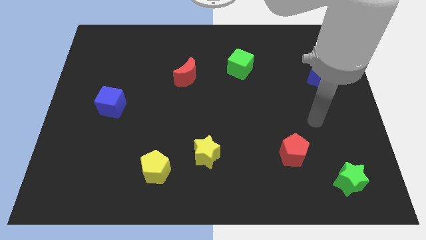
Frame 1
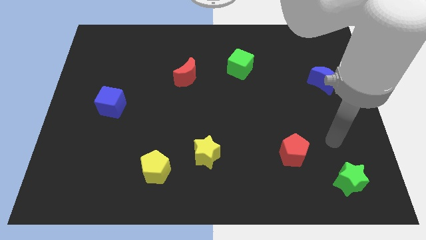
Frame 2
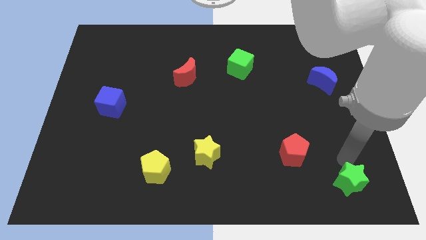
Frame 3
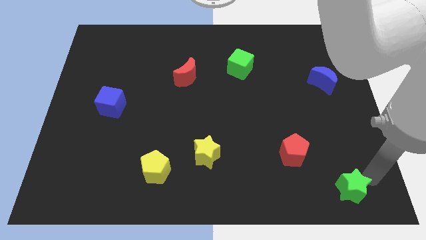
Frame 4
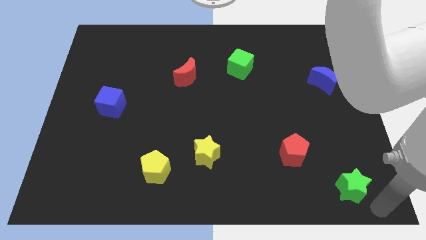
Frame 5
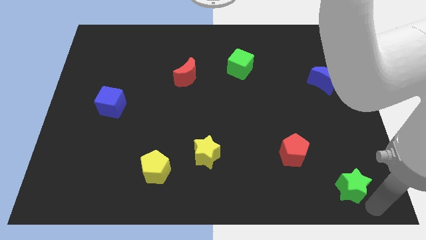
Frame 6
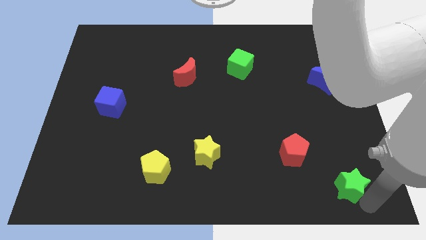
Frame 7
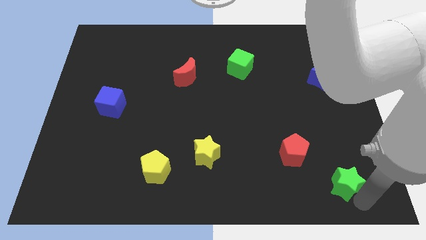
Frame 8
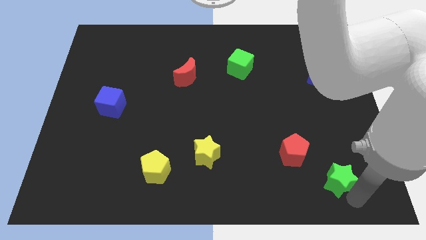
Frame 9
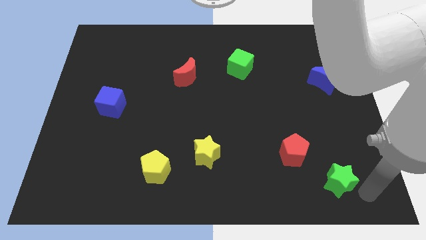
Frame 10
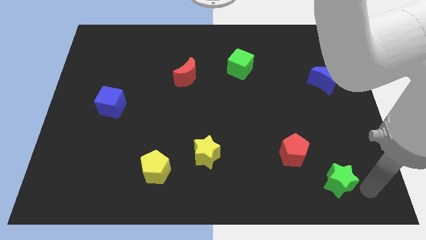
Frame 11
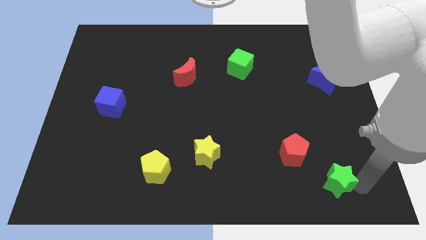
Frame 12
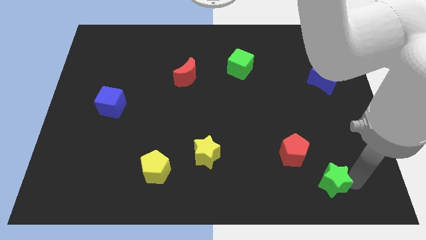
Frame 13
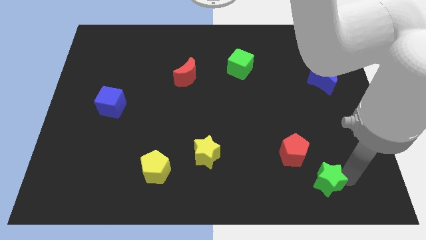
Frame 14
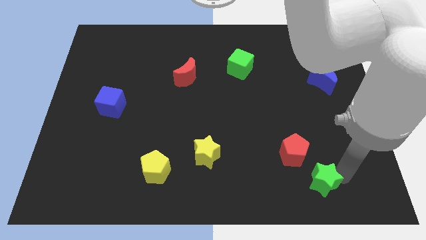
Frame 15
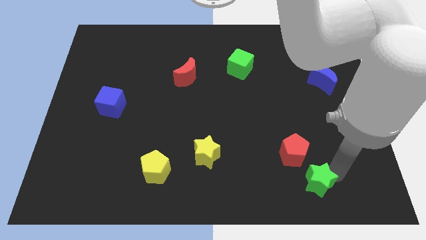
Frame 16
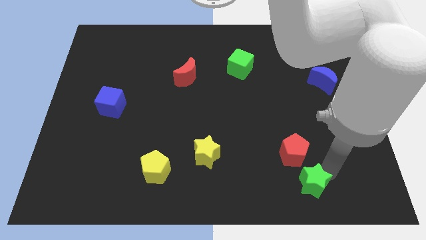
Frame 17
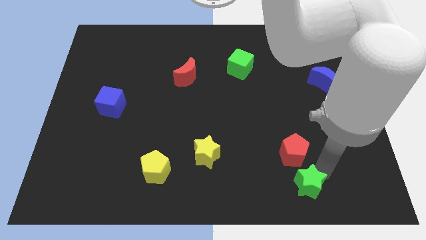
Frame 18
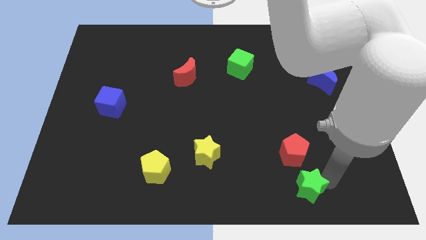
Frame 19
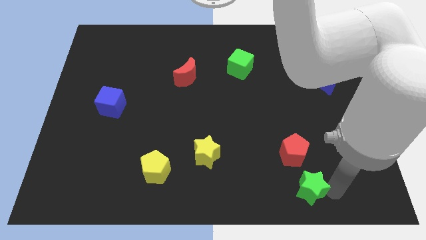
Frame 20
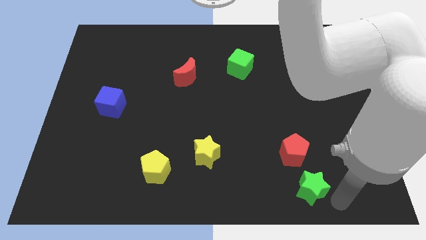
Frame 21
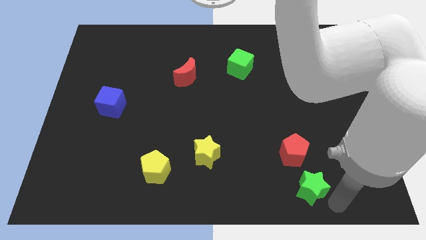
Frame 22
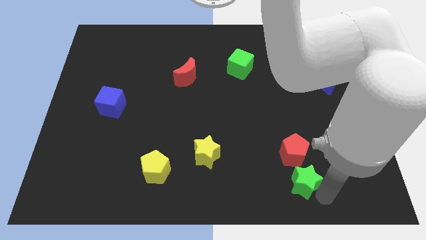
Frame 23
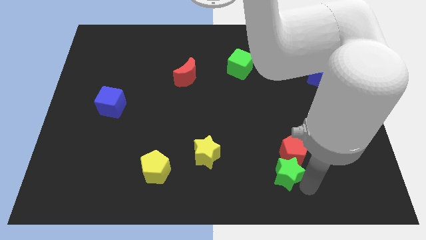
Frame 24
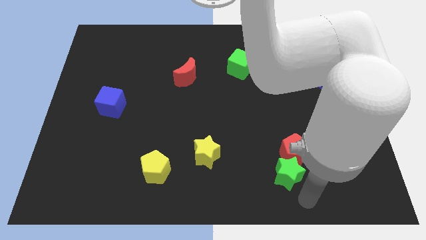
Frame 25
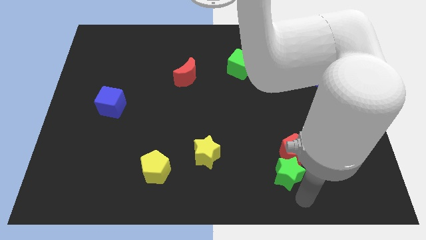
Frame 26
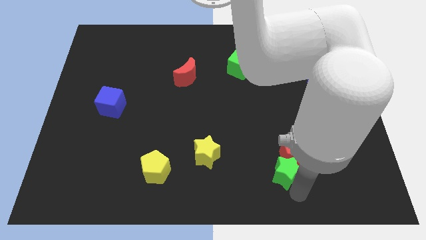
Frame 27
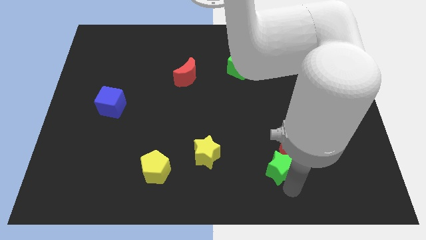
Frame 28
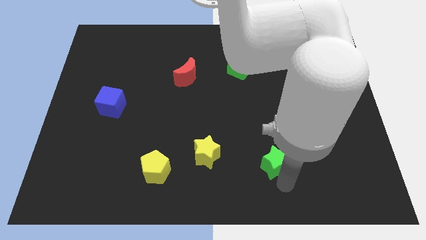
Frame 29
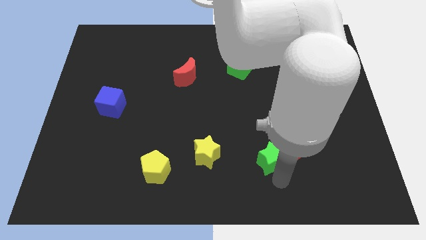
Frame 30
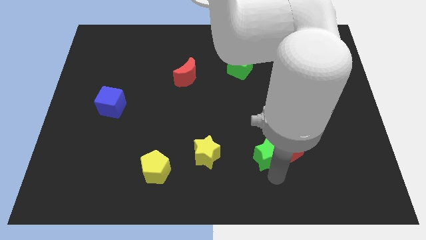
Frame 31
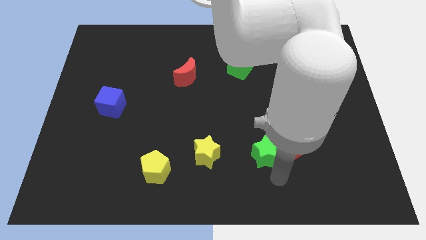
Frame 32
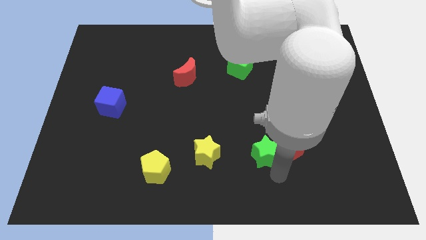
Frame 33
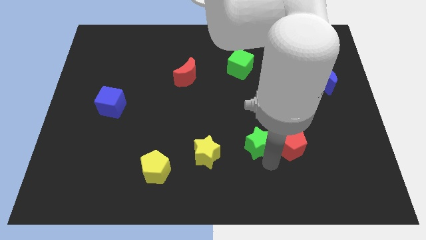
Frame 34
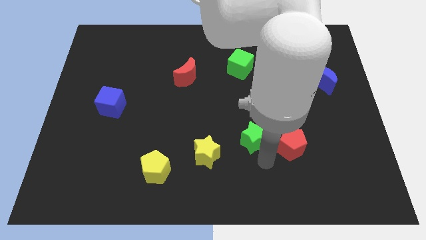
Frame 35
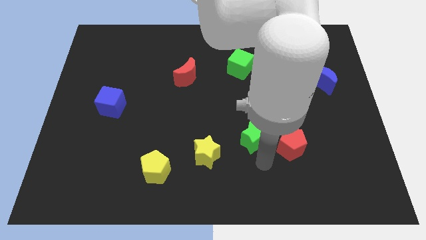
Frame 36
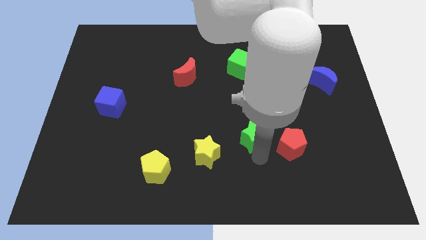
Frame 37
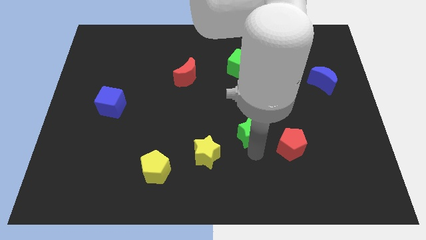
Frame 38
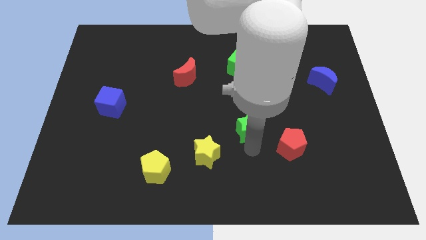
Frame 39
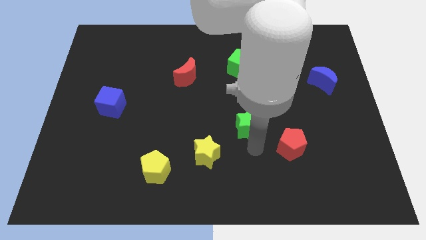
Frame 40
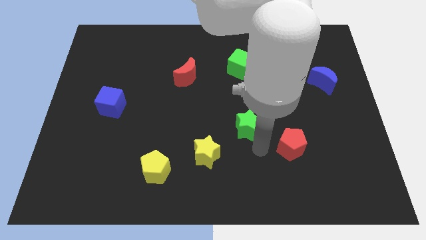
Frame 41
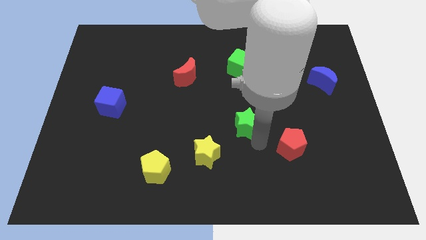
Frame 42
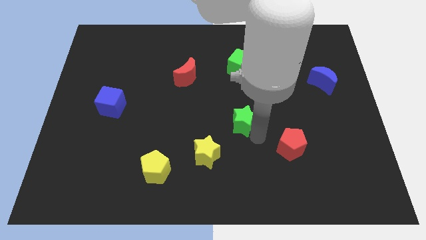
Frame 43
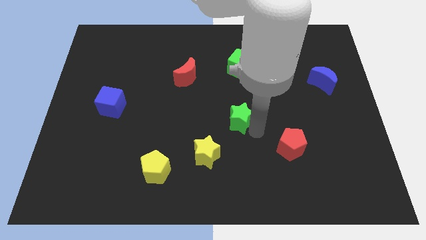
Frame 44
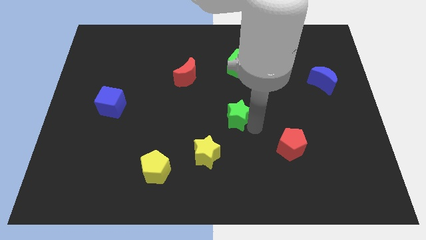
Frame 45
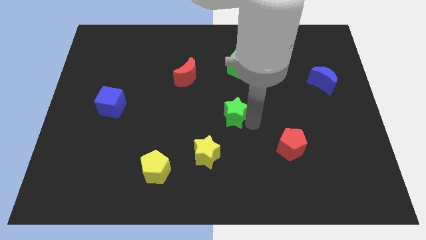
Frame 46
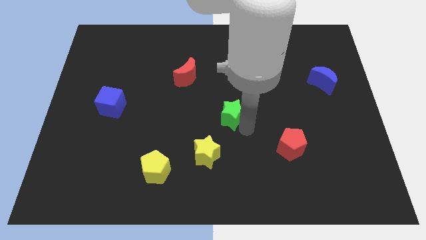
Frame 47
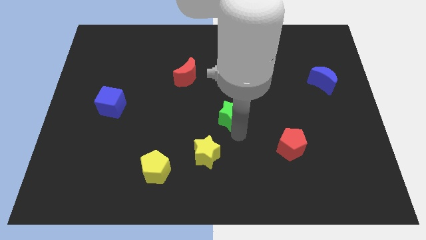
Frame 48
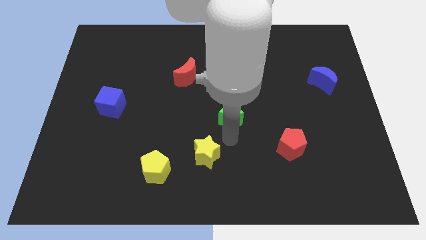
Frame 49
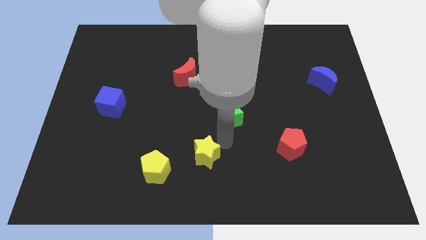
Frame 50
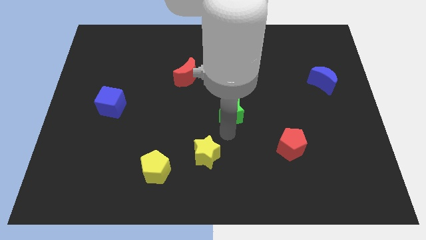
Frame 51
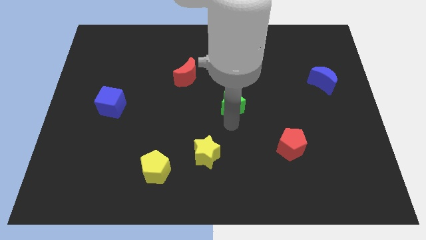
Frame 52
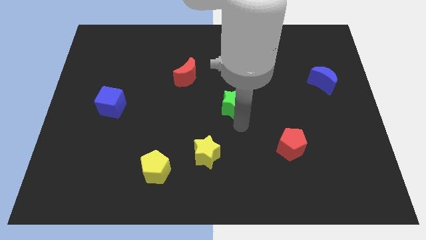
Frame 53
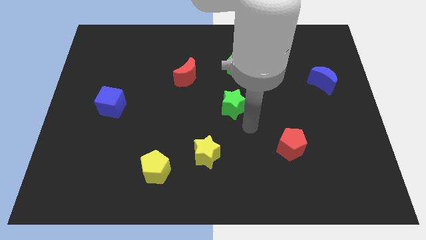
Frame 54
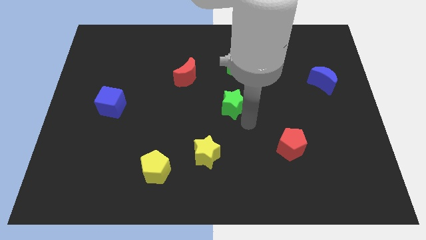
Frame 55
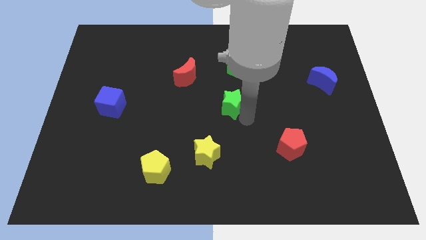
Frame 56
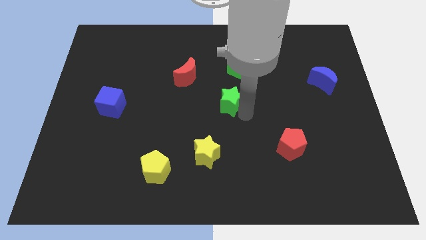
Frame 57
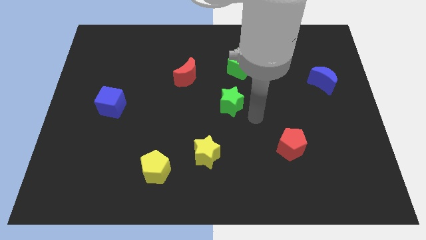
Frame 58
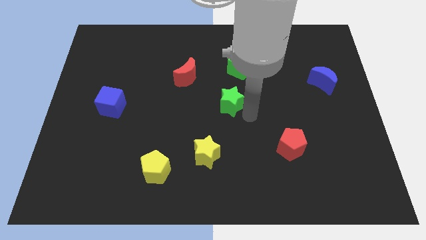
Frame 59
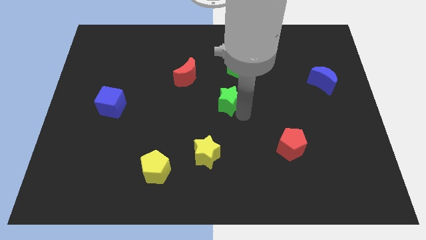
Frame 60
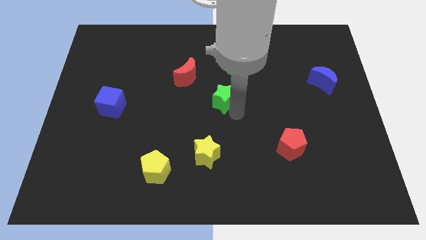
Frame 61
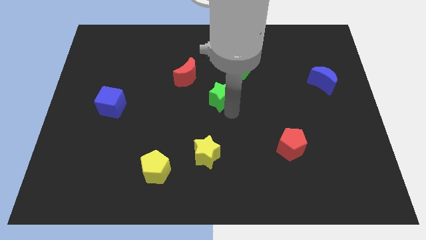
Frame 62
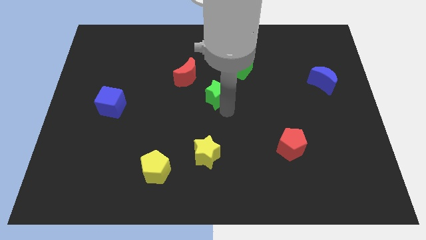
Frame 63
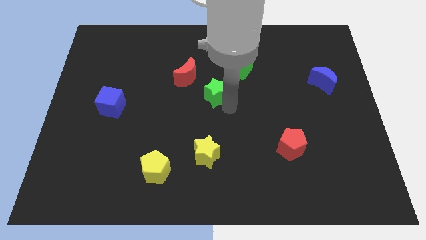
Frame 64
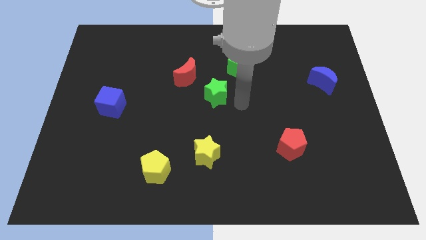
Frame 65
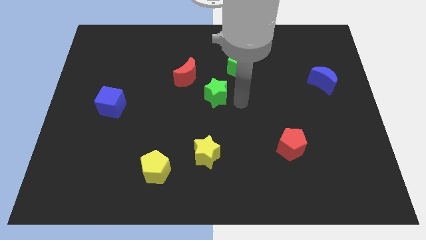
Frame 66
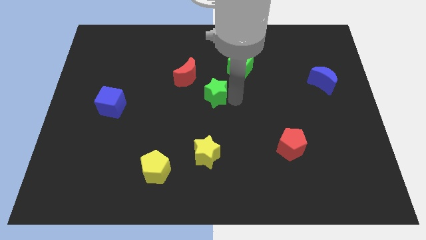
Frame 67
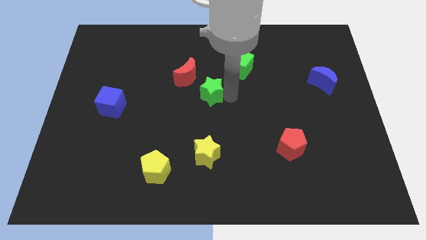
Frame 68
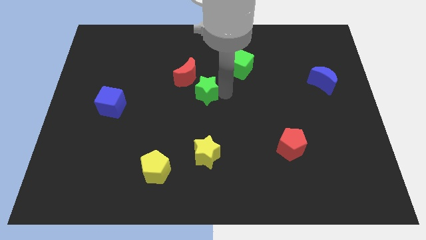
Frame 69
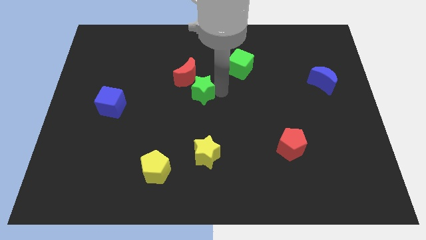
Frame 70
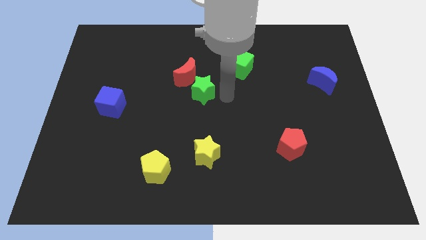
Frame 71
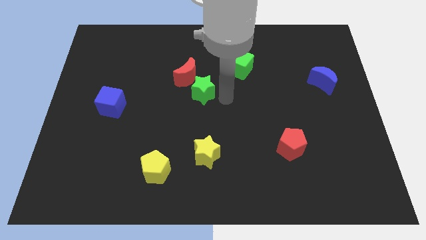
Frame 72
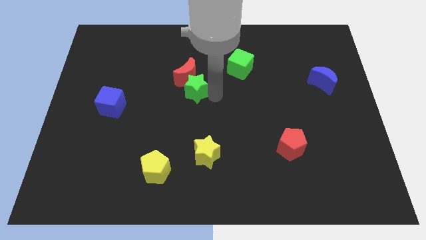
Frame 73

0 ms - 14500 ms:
move the green star towards the red moon
